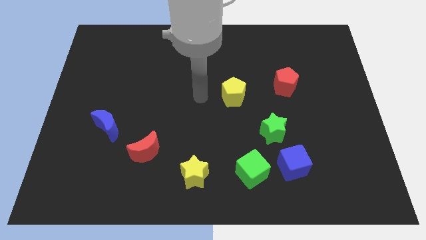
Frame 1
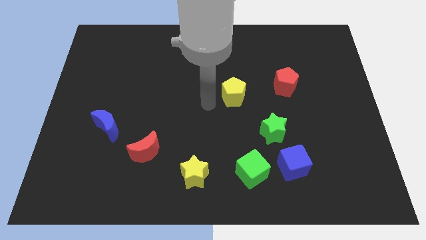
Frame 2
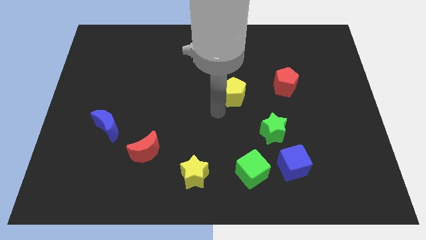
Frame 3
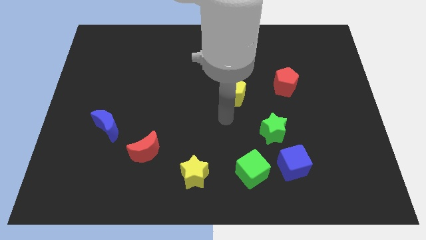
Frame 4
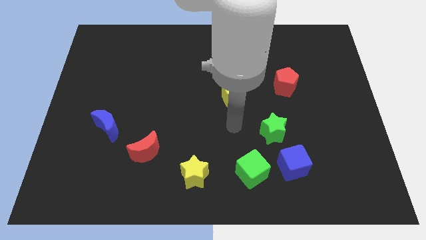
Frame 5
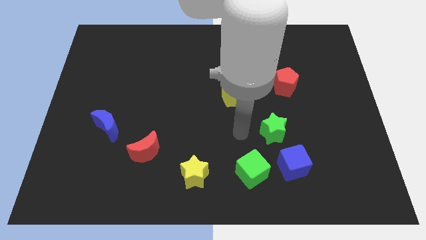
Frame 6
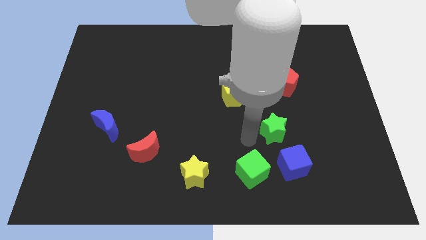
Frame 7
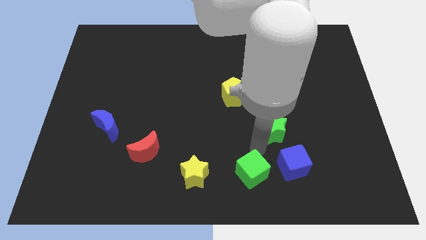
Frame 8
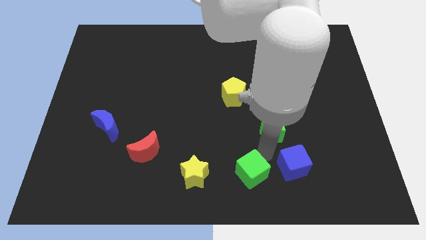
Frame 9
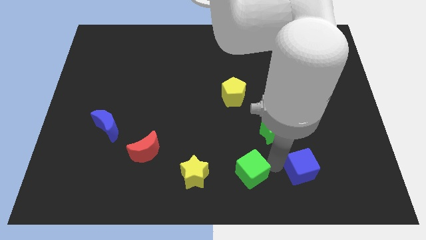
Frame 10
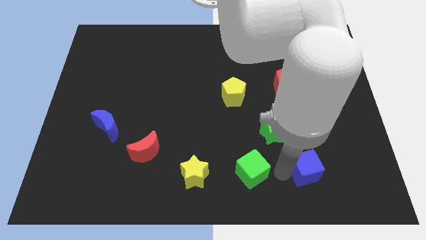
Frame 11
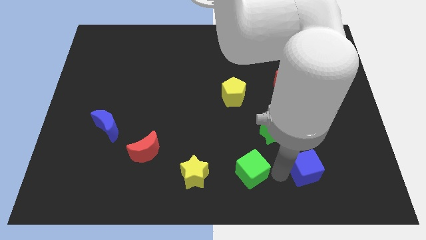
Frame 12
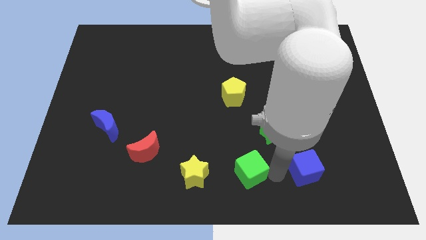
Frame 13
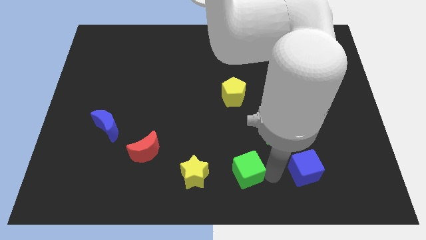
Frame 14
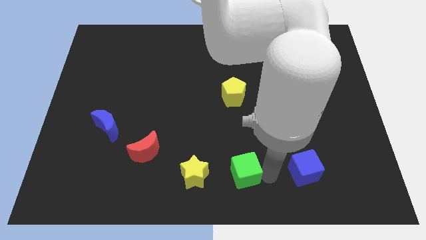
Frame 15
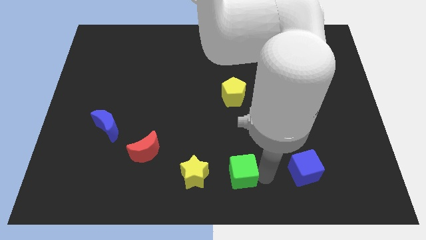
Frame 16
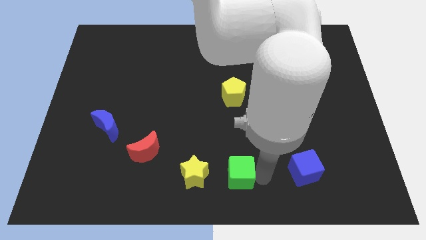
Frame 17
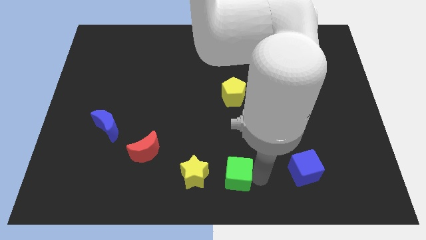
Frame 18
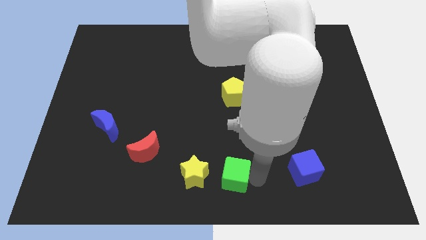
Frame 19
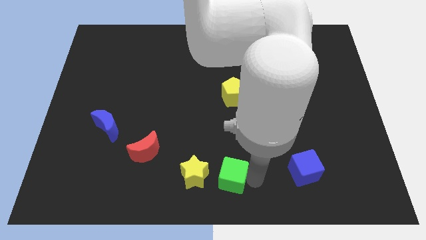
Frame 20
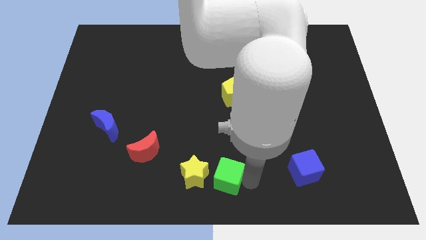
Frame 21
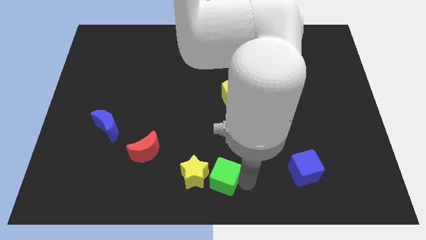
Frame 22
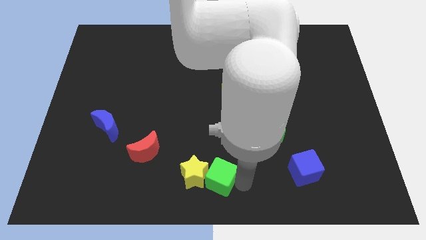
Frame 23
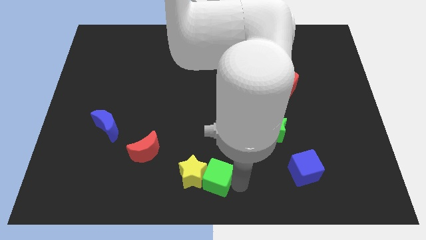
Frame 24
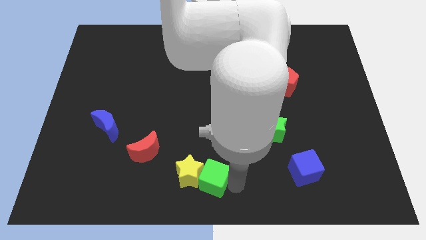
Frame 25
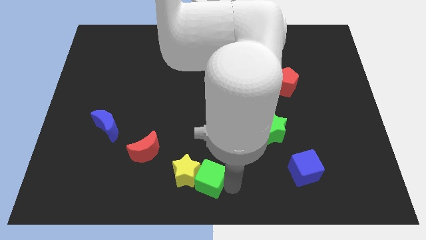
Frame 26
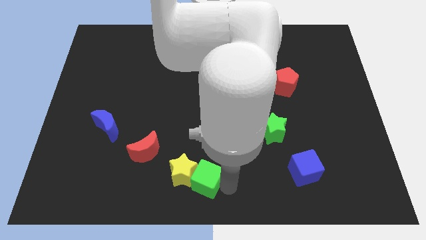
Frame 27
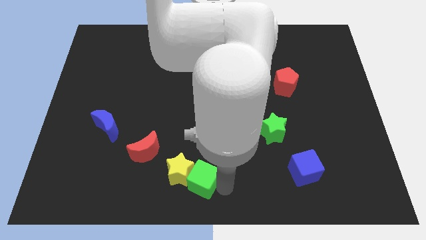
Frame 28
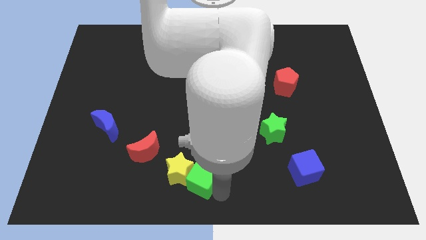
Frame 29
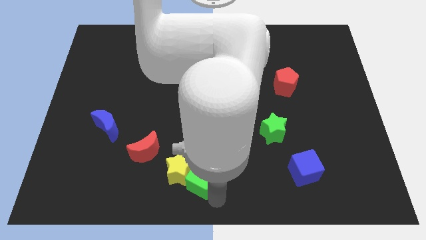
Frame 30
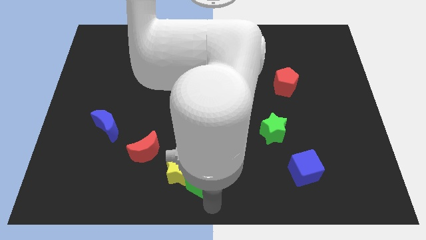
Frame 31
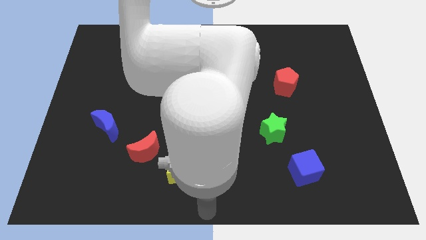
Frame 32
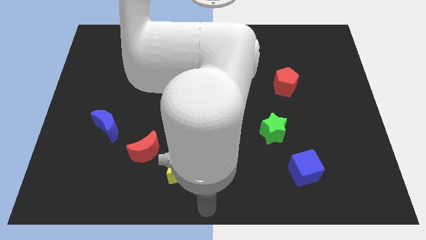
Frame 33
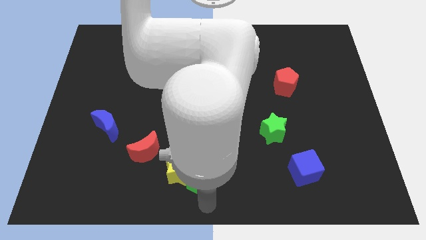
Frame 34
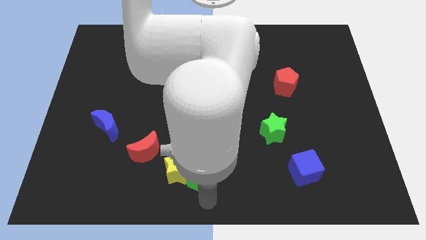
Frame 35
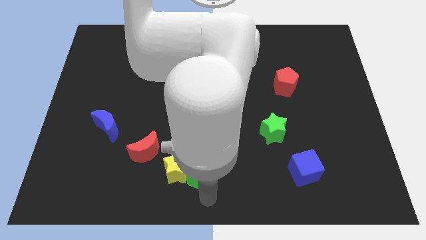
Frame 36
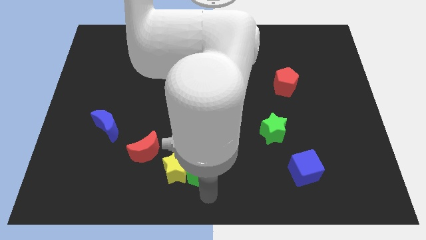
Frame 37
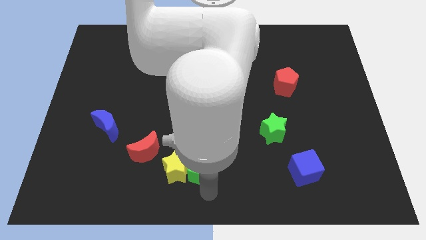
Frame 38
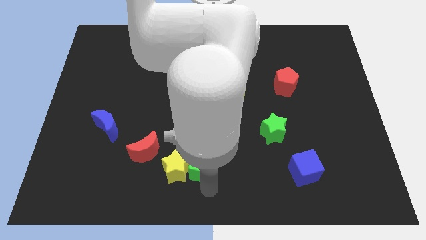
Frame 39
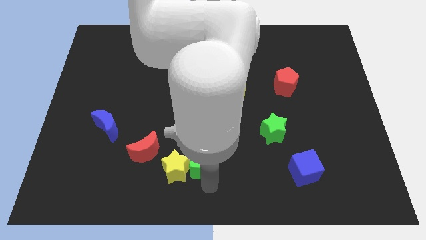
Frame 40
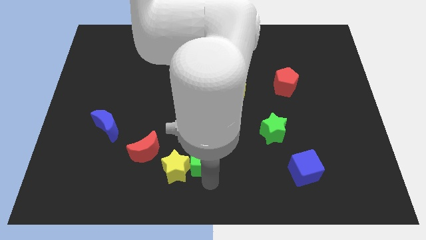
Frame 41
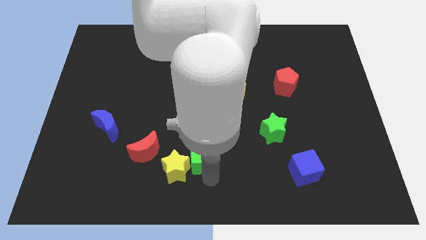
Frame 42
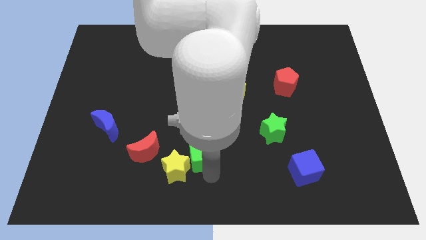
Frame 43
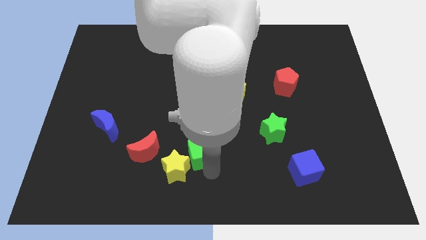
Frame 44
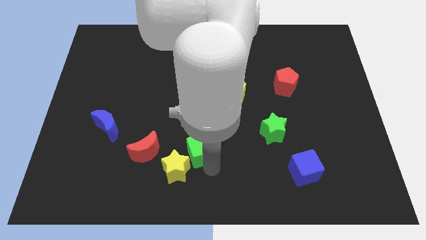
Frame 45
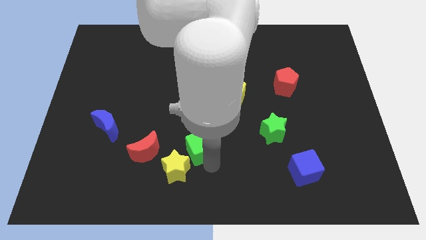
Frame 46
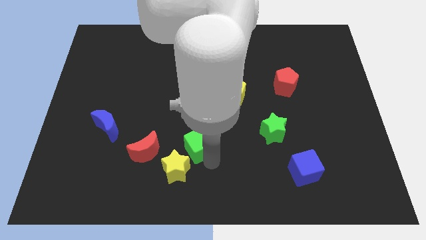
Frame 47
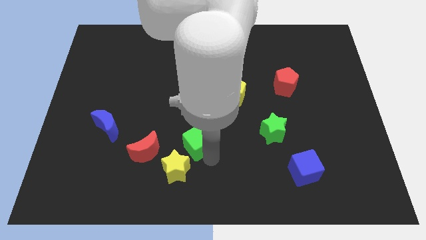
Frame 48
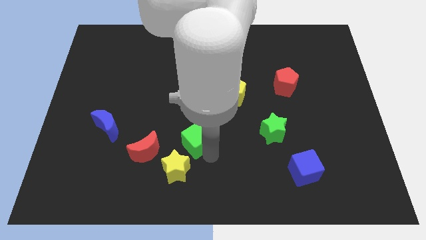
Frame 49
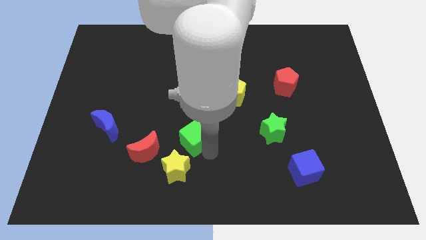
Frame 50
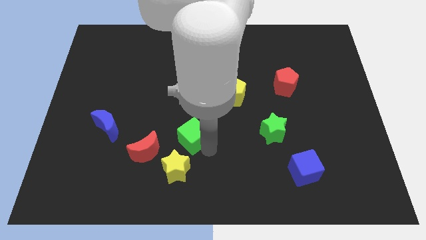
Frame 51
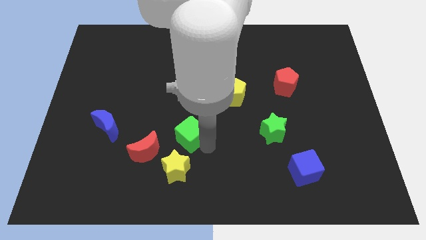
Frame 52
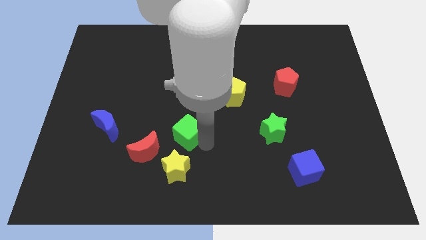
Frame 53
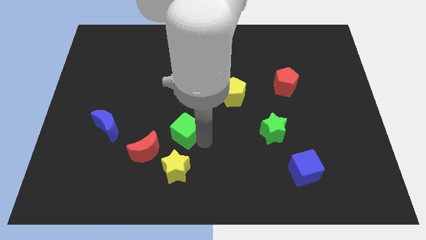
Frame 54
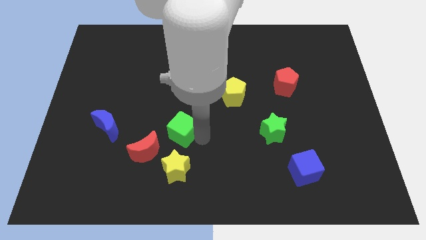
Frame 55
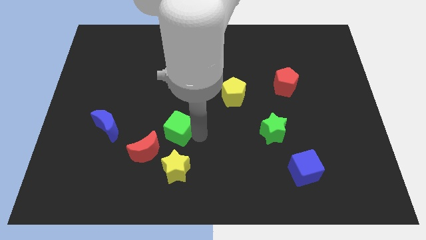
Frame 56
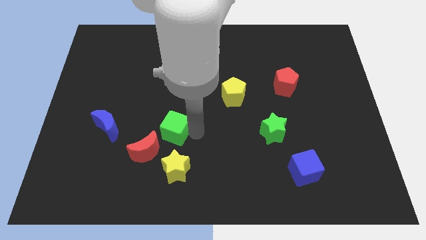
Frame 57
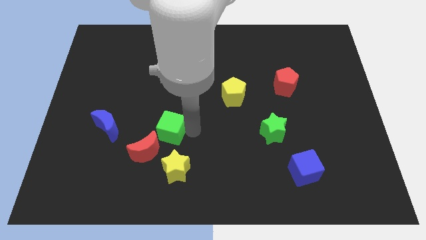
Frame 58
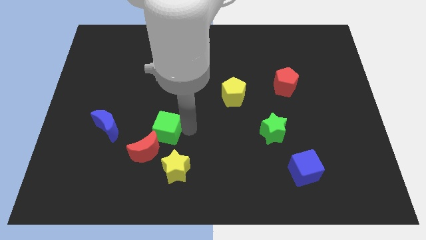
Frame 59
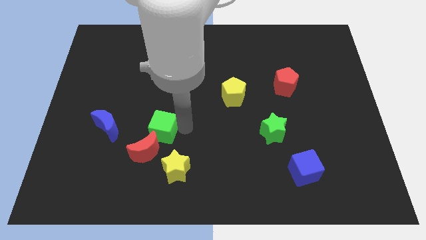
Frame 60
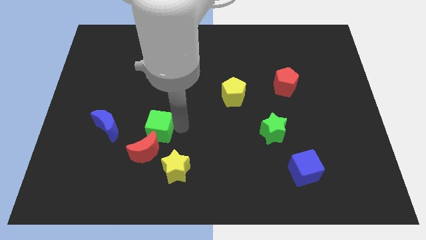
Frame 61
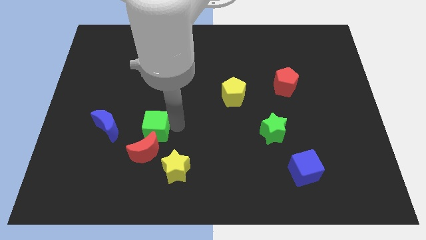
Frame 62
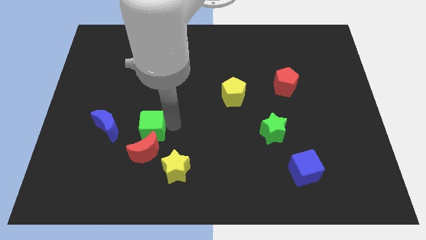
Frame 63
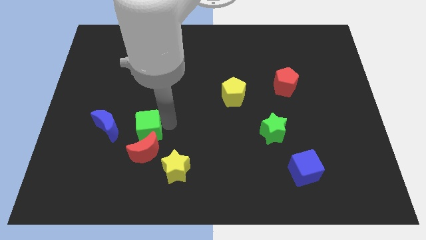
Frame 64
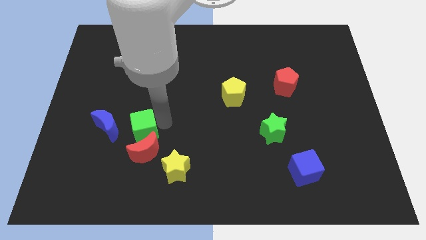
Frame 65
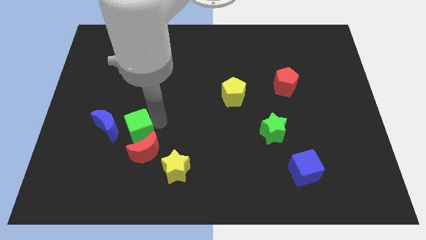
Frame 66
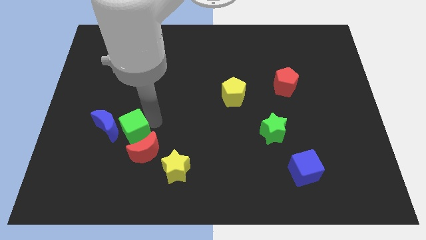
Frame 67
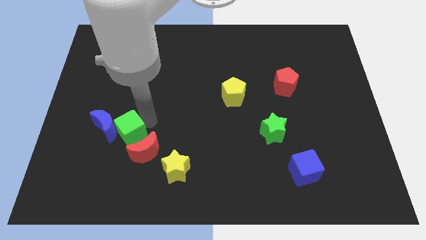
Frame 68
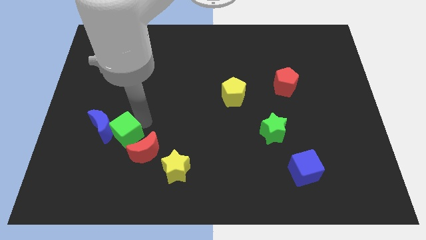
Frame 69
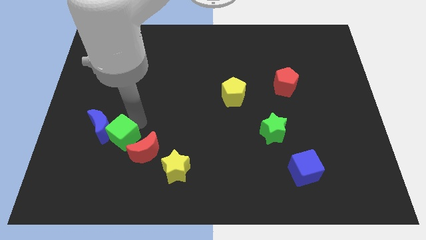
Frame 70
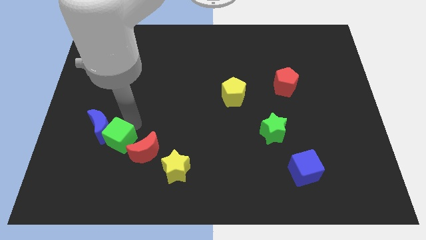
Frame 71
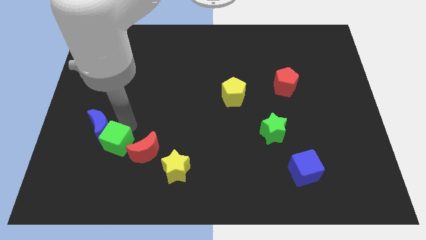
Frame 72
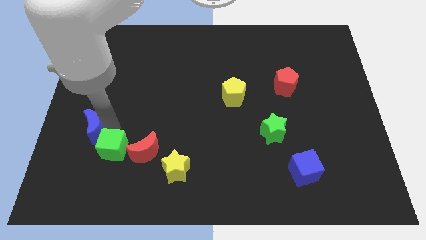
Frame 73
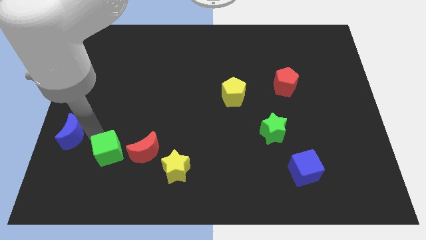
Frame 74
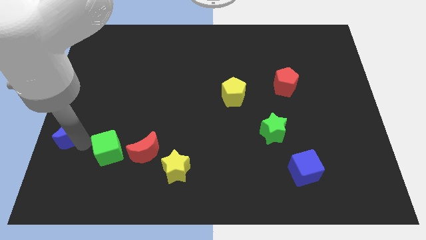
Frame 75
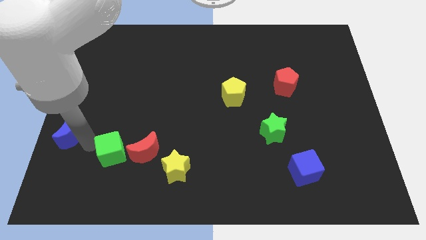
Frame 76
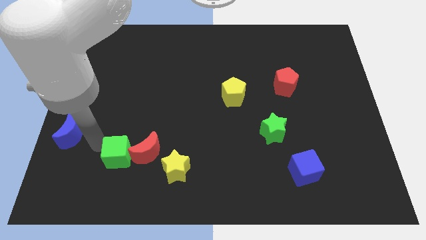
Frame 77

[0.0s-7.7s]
put the green cube diagonally down and to the left of the red moon
